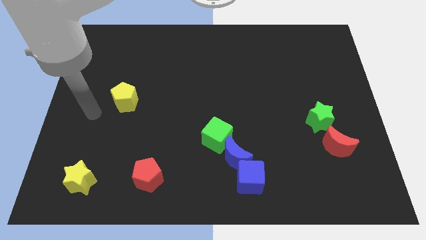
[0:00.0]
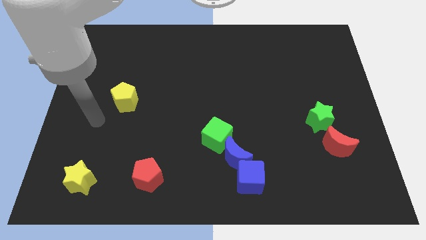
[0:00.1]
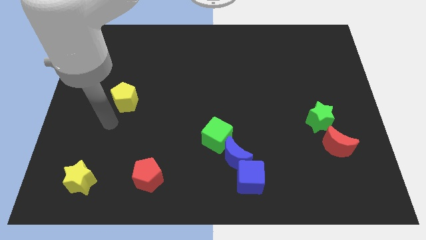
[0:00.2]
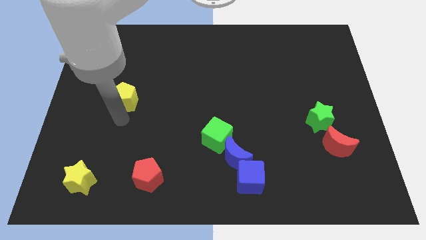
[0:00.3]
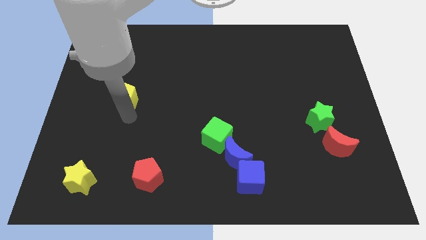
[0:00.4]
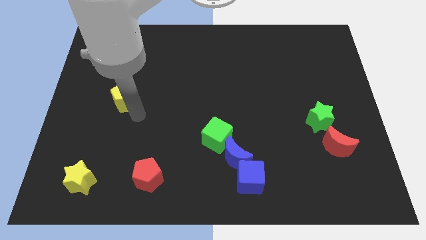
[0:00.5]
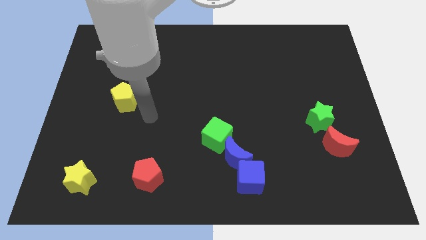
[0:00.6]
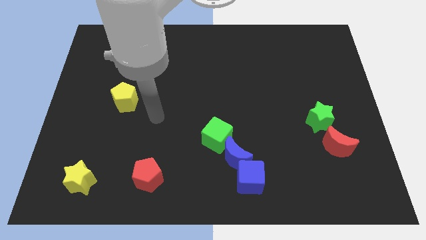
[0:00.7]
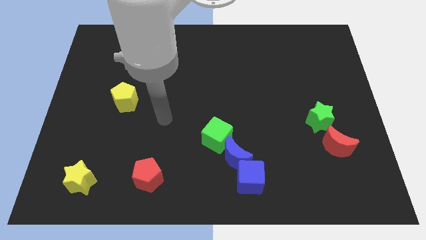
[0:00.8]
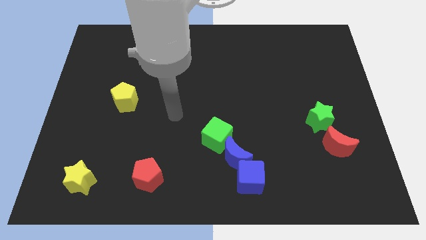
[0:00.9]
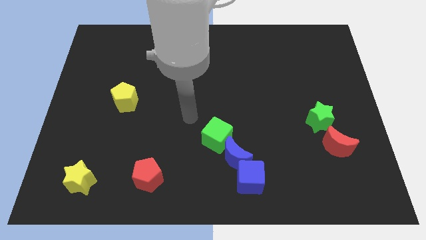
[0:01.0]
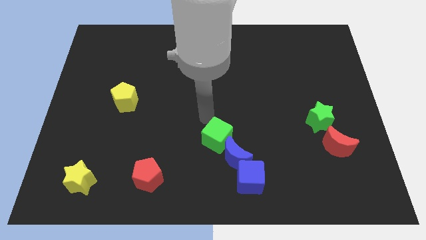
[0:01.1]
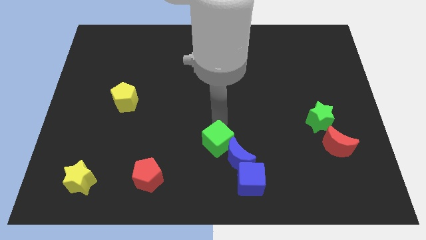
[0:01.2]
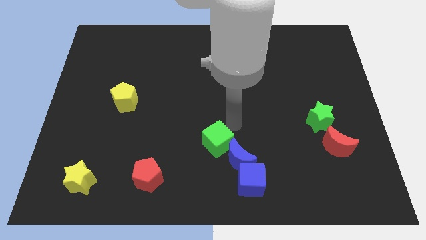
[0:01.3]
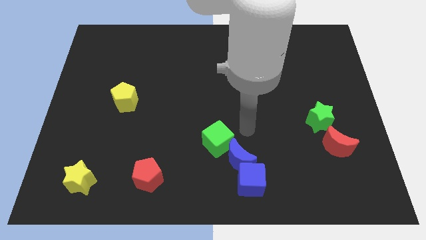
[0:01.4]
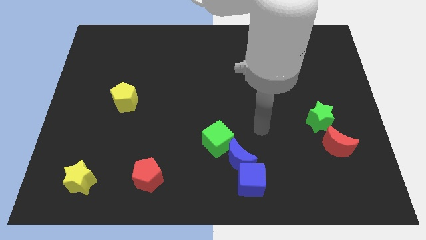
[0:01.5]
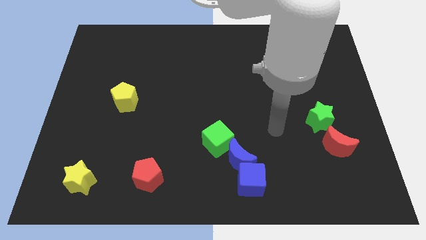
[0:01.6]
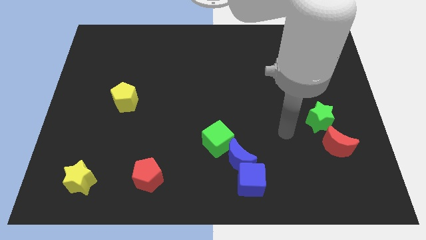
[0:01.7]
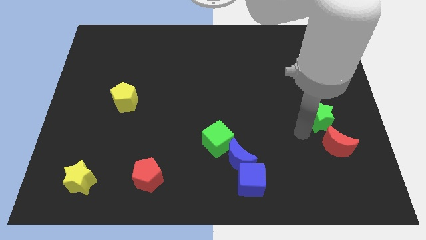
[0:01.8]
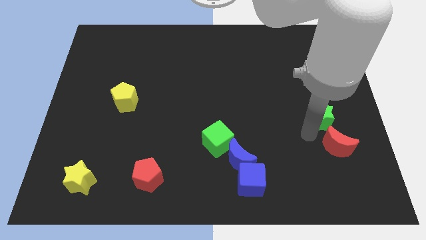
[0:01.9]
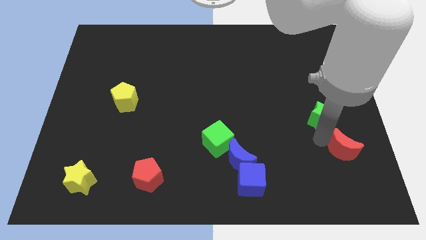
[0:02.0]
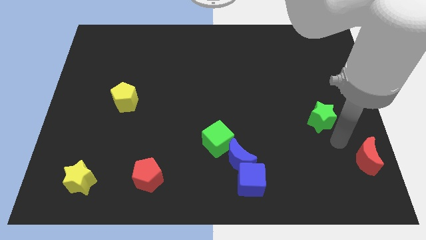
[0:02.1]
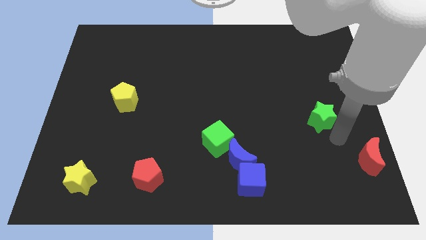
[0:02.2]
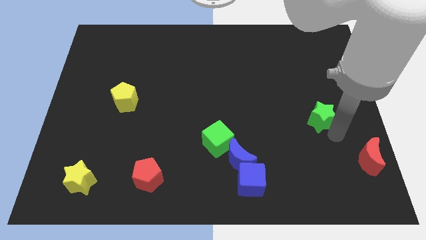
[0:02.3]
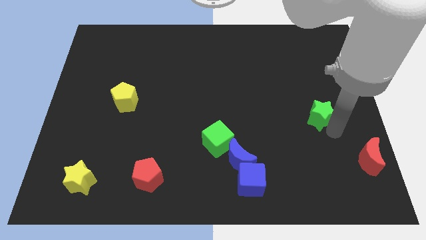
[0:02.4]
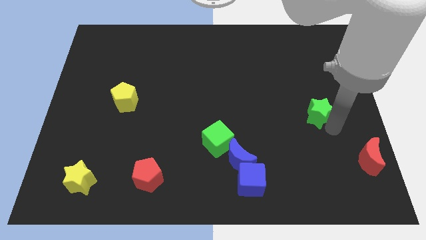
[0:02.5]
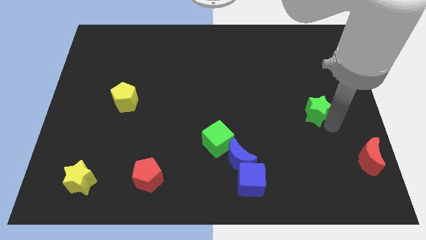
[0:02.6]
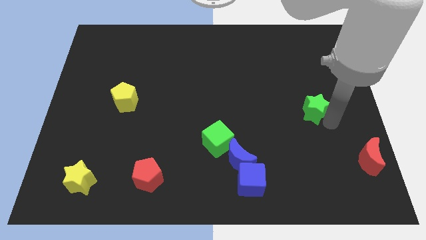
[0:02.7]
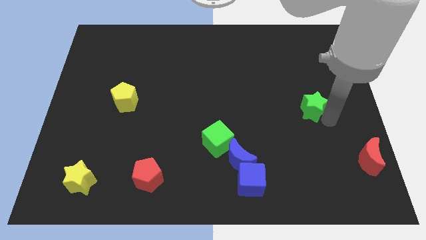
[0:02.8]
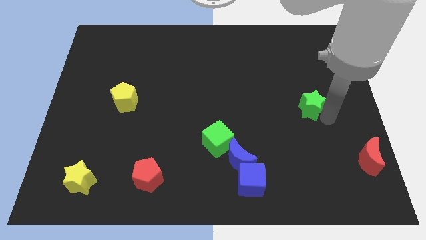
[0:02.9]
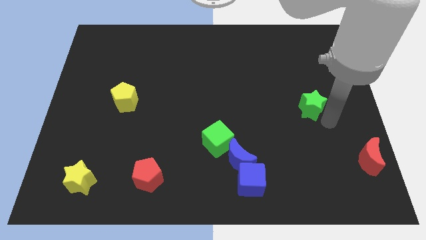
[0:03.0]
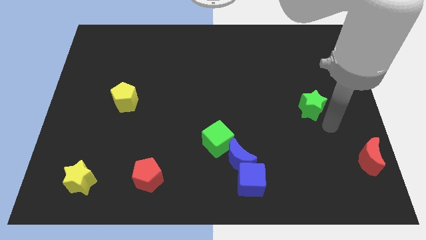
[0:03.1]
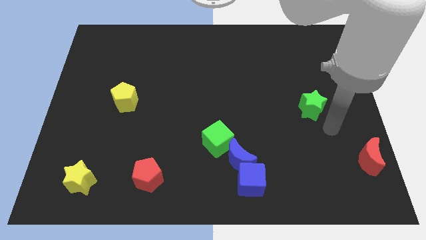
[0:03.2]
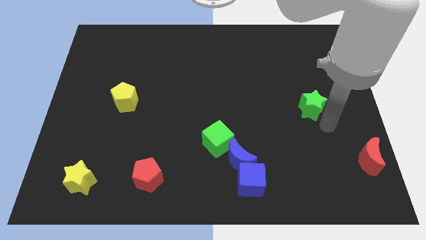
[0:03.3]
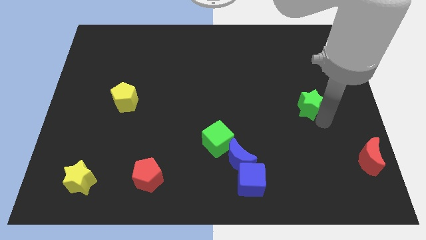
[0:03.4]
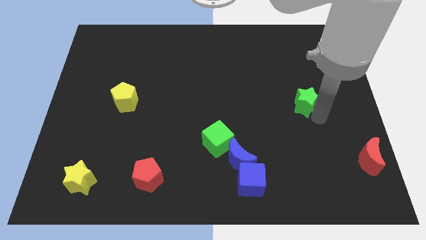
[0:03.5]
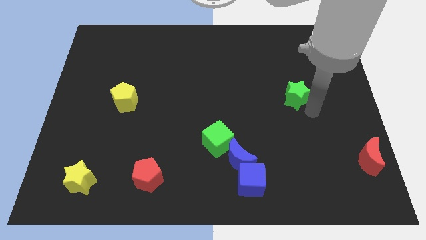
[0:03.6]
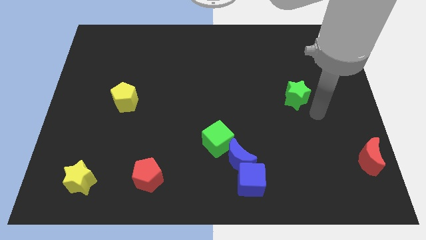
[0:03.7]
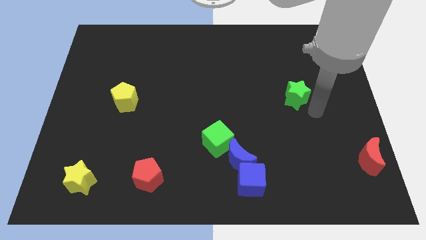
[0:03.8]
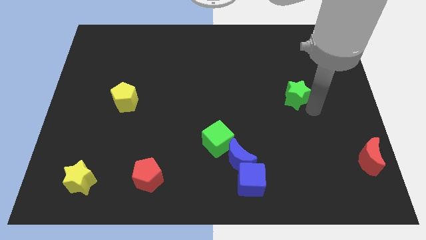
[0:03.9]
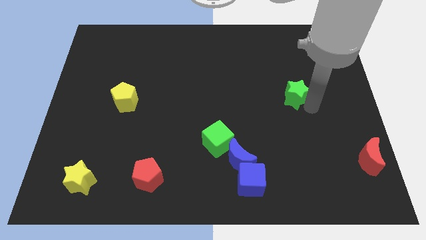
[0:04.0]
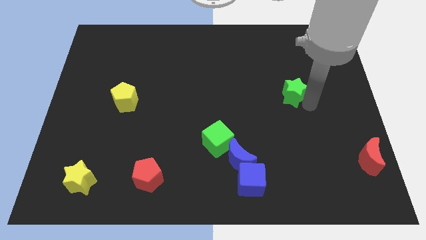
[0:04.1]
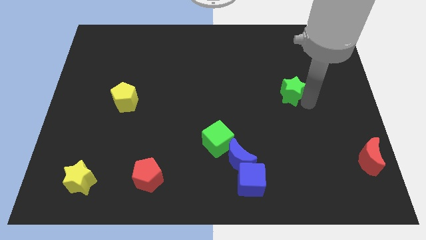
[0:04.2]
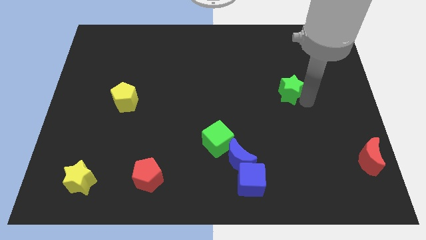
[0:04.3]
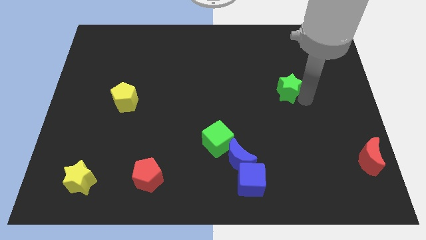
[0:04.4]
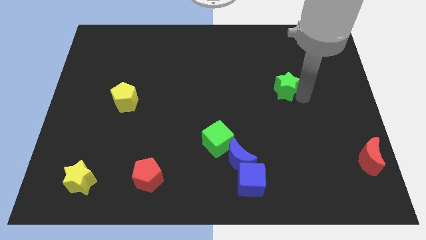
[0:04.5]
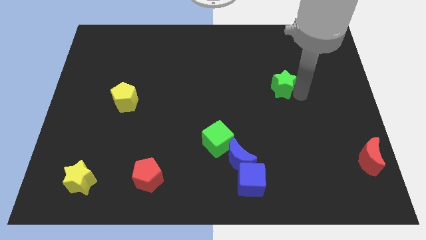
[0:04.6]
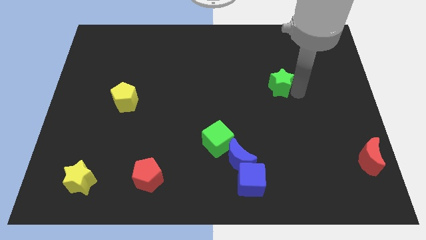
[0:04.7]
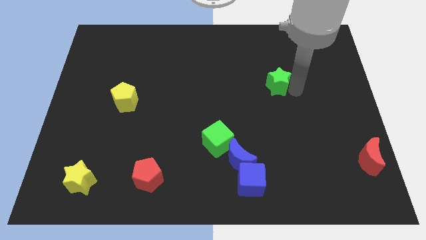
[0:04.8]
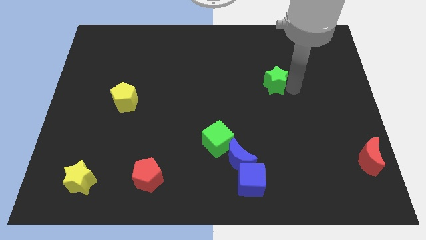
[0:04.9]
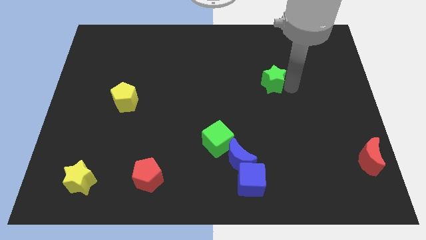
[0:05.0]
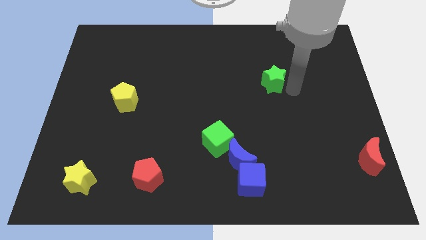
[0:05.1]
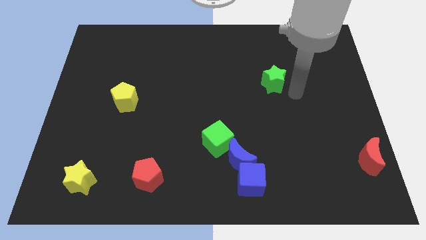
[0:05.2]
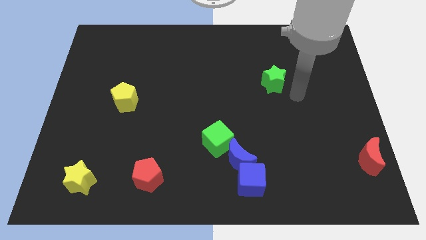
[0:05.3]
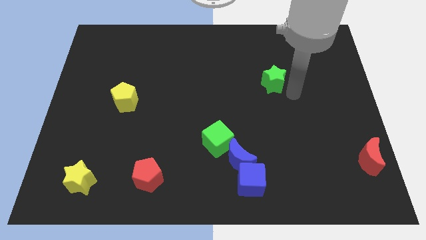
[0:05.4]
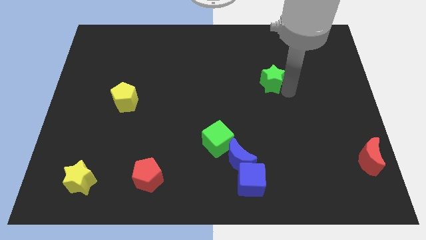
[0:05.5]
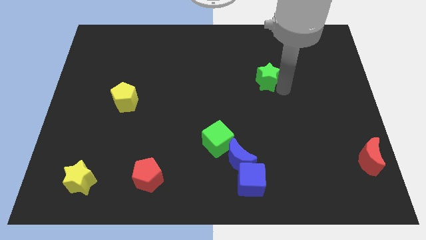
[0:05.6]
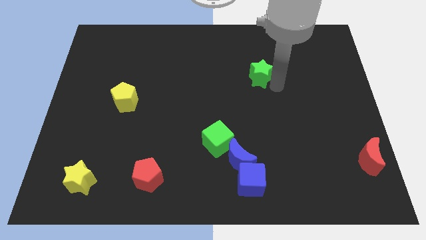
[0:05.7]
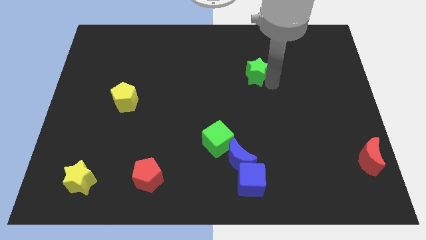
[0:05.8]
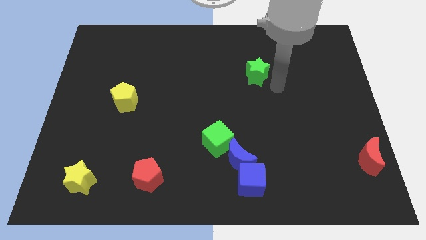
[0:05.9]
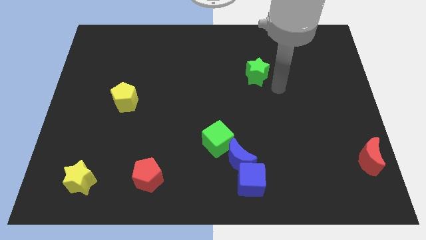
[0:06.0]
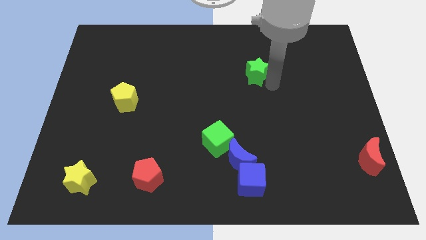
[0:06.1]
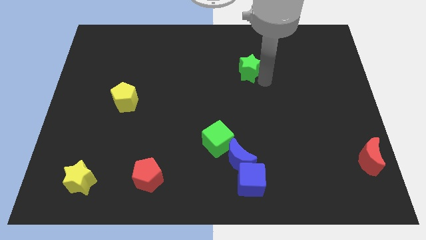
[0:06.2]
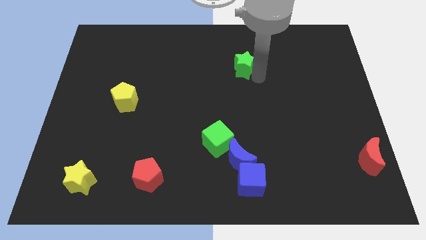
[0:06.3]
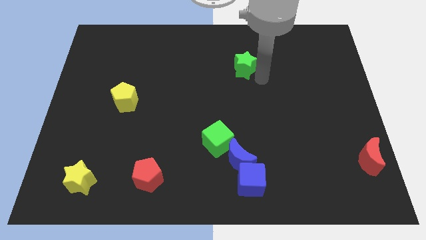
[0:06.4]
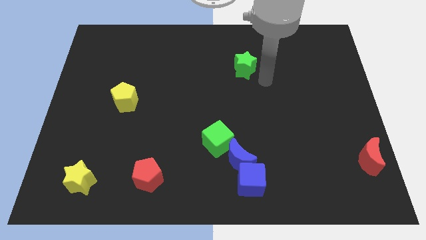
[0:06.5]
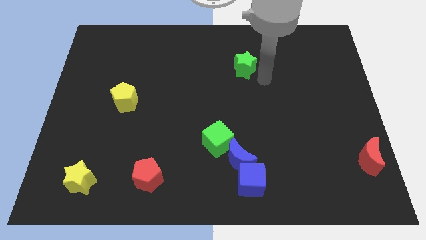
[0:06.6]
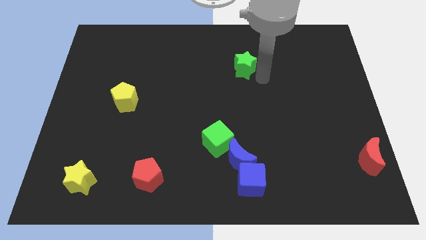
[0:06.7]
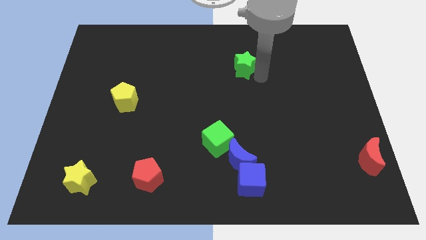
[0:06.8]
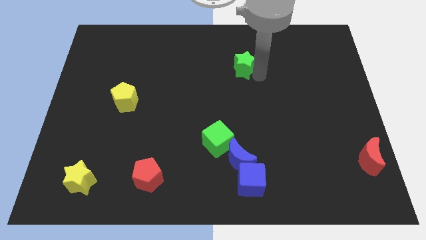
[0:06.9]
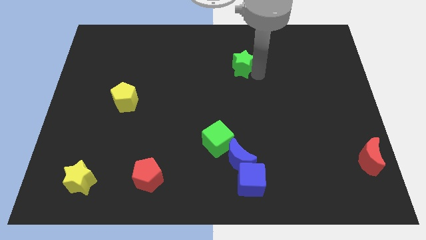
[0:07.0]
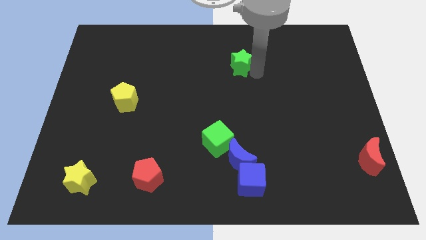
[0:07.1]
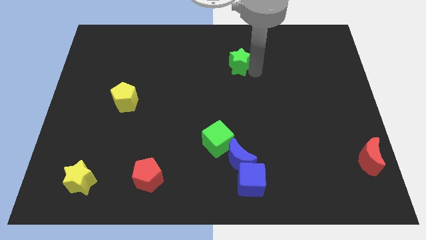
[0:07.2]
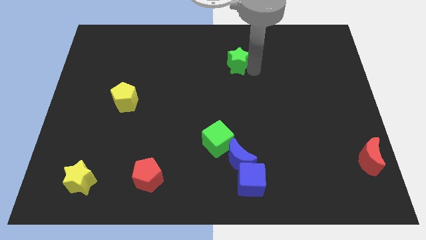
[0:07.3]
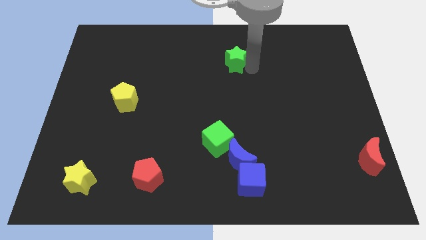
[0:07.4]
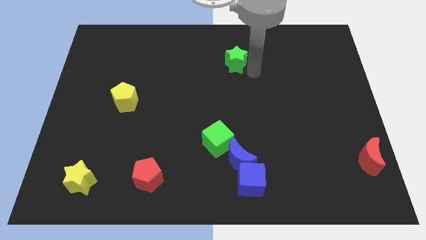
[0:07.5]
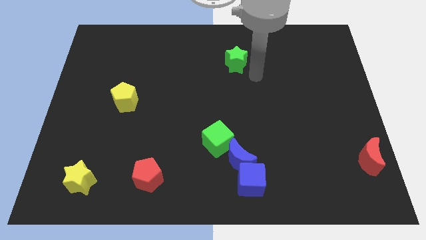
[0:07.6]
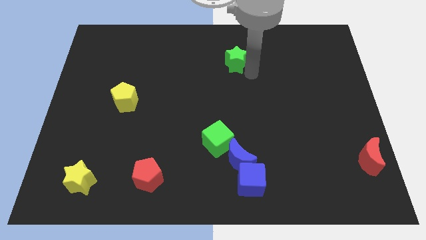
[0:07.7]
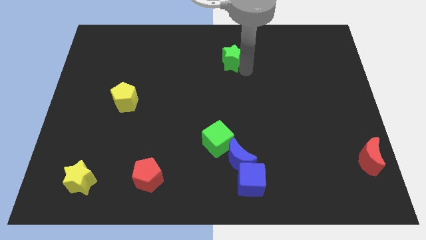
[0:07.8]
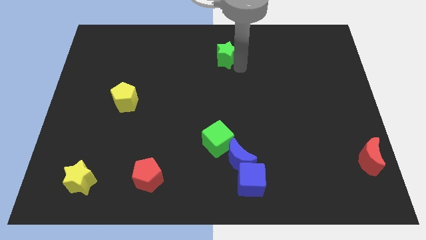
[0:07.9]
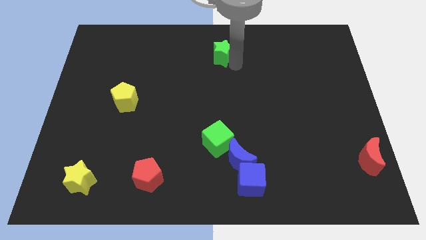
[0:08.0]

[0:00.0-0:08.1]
push the green star to the towards your base
